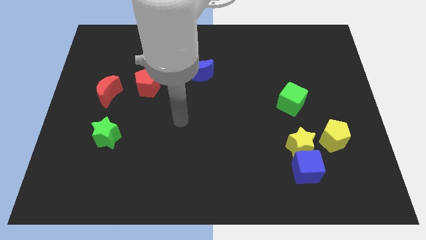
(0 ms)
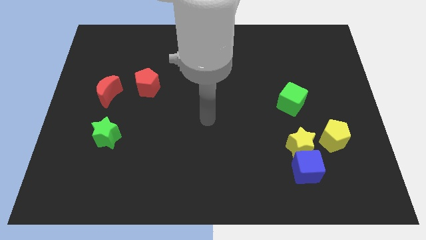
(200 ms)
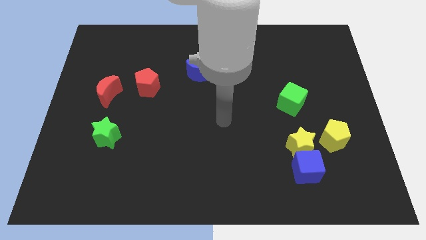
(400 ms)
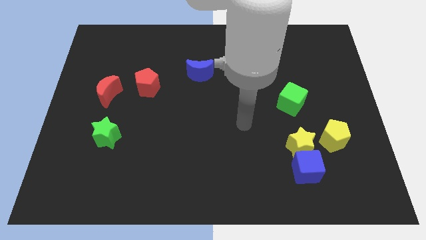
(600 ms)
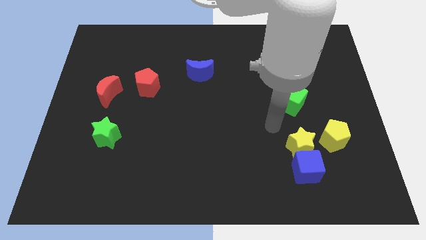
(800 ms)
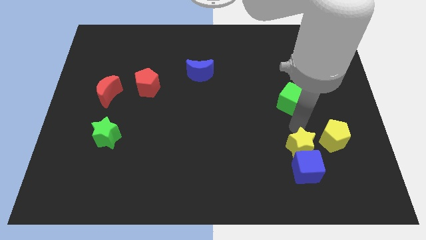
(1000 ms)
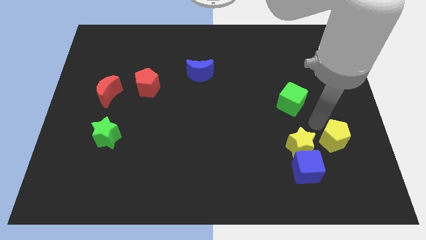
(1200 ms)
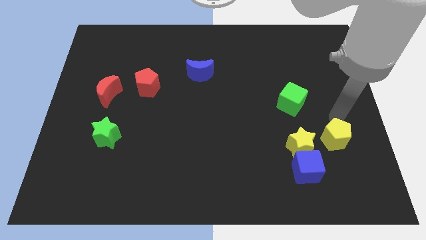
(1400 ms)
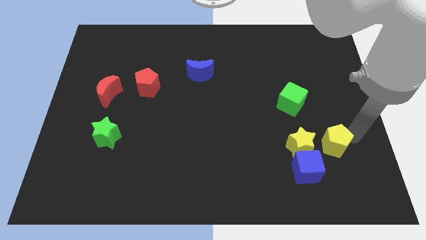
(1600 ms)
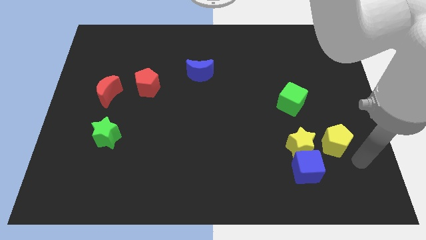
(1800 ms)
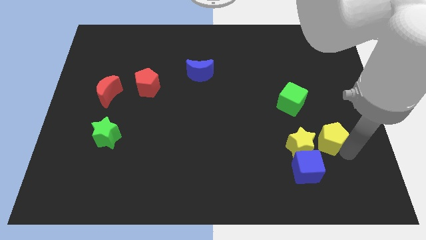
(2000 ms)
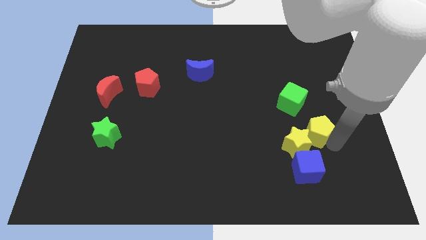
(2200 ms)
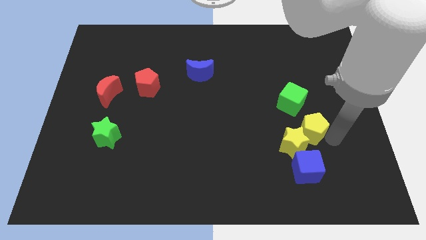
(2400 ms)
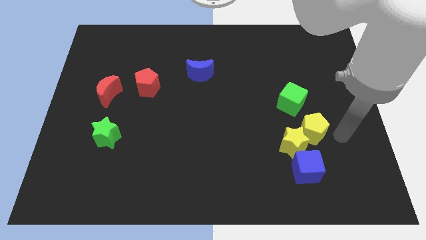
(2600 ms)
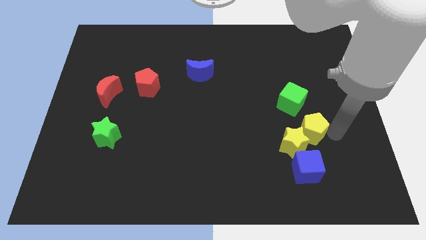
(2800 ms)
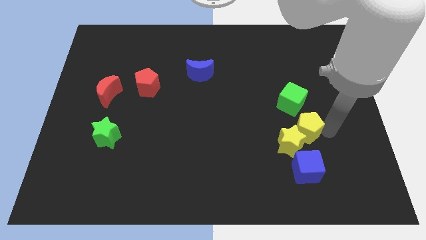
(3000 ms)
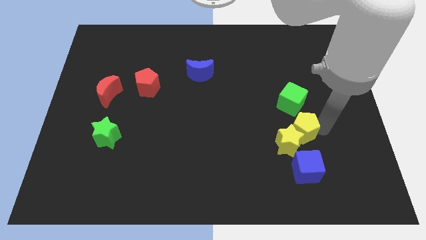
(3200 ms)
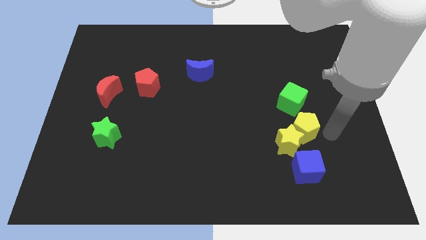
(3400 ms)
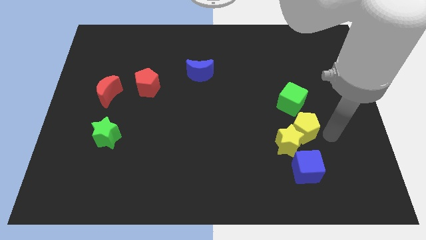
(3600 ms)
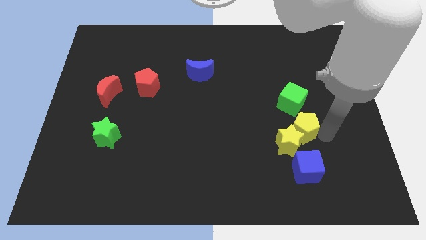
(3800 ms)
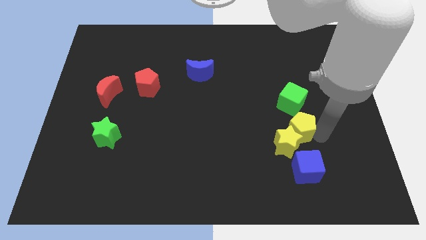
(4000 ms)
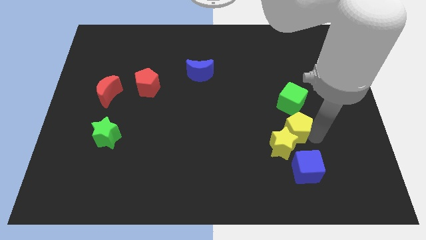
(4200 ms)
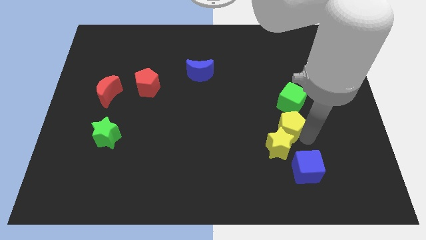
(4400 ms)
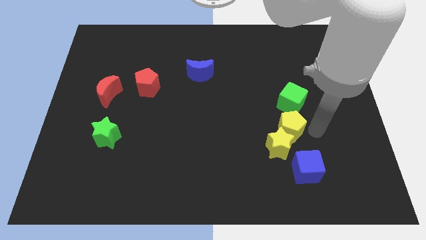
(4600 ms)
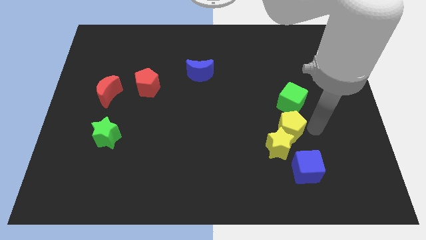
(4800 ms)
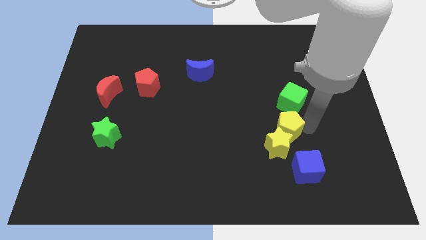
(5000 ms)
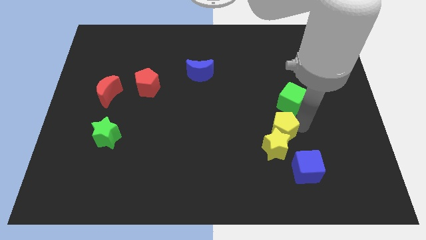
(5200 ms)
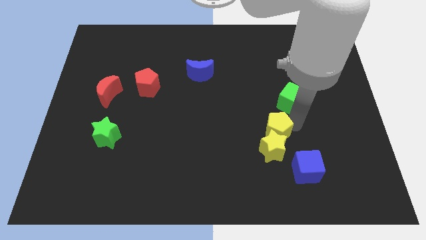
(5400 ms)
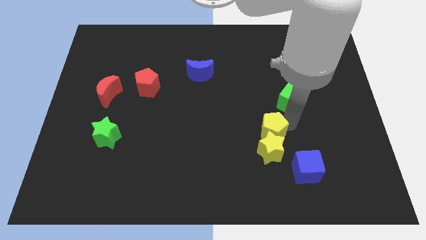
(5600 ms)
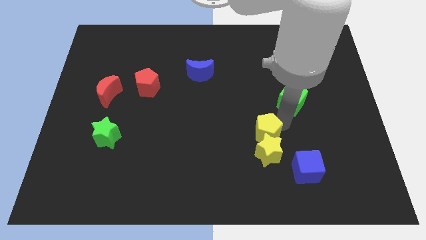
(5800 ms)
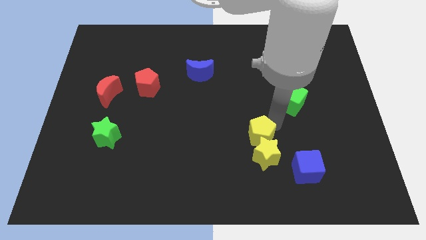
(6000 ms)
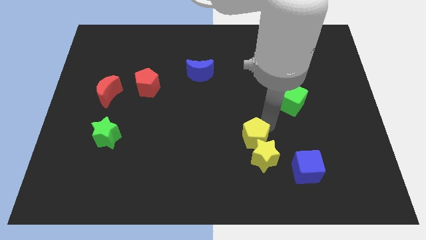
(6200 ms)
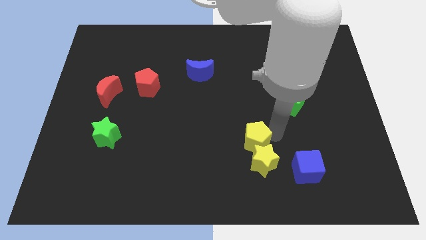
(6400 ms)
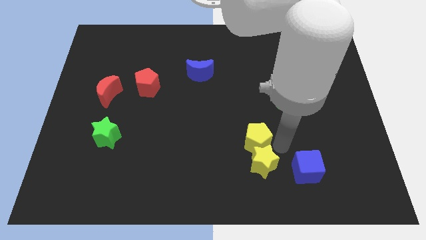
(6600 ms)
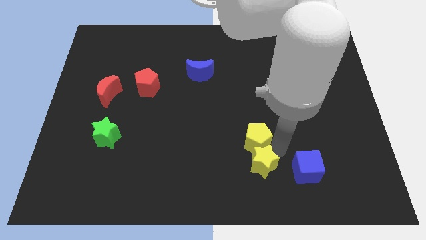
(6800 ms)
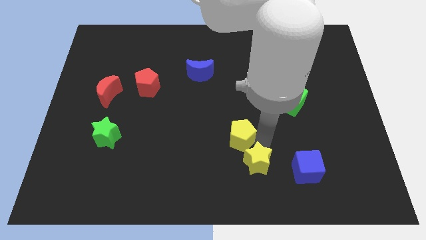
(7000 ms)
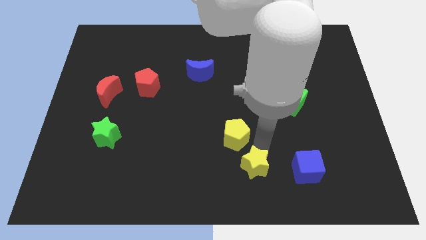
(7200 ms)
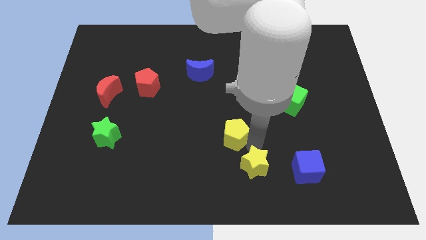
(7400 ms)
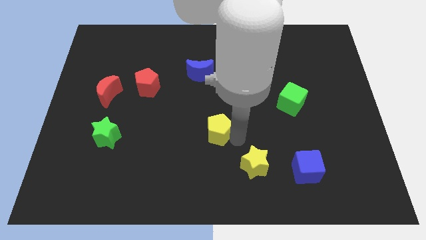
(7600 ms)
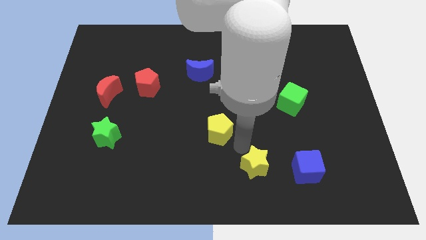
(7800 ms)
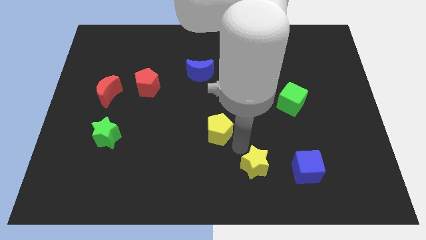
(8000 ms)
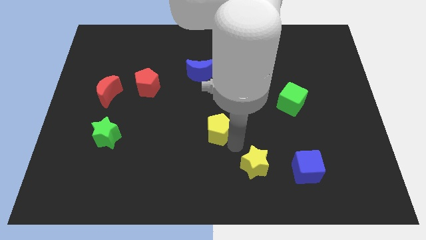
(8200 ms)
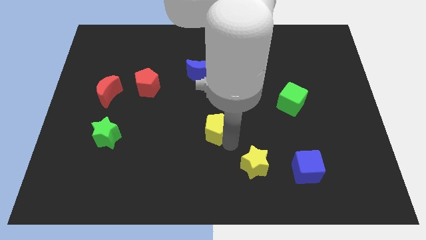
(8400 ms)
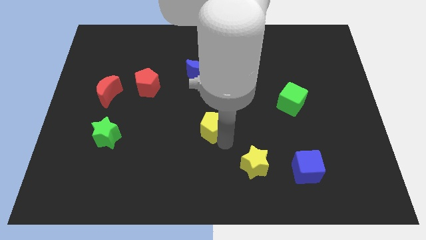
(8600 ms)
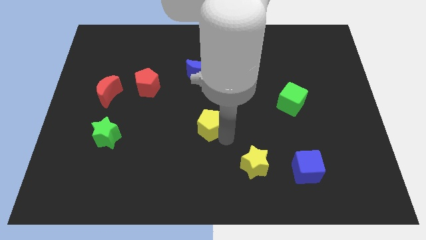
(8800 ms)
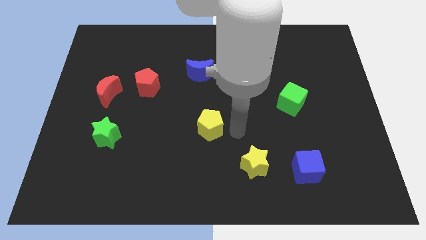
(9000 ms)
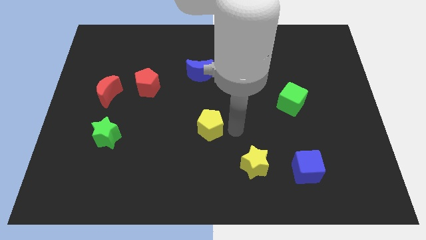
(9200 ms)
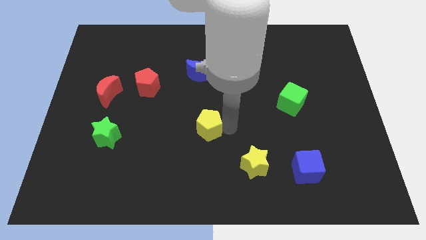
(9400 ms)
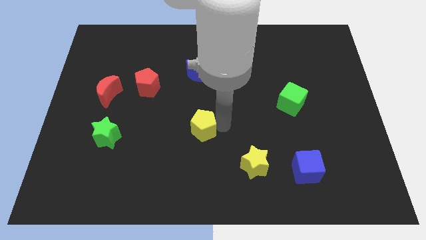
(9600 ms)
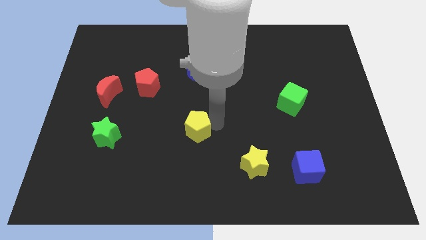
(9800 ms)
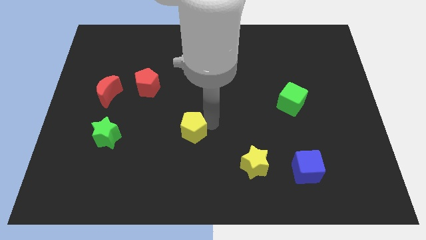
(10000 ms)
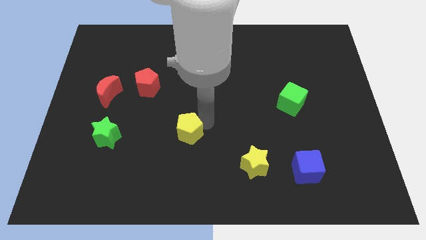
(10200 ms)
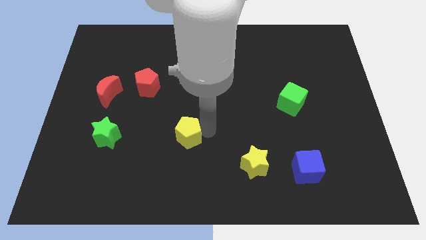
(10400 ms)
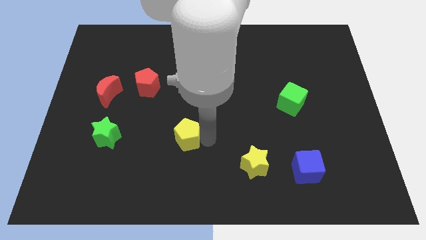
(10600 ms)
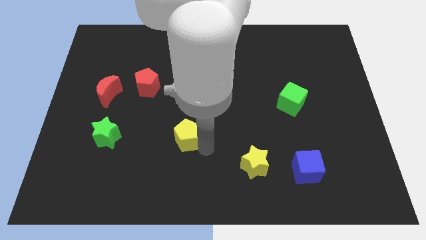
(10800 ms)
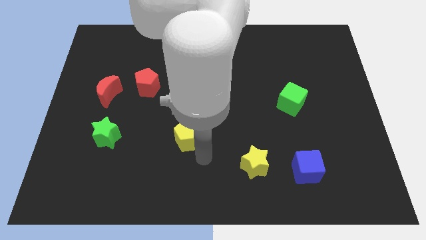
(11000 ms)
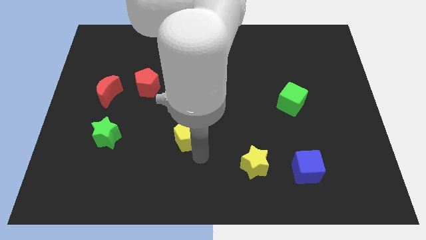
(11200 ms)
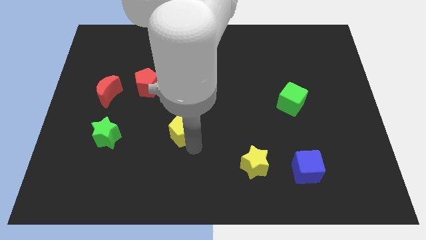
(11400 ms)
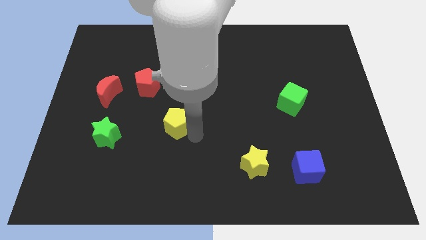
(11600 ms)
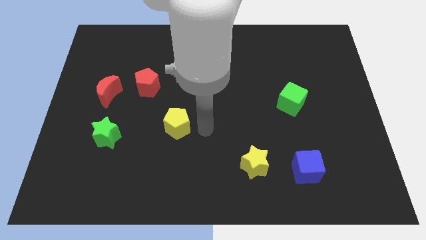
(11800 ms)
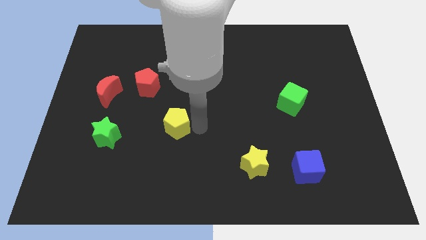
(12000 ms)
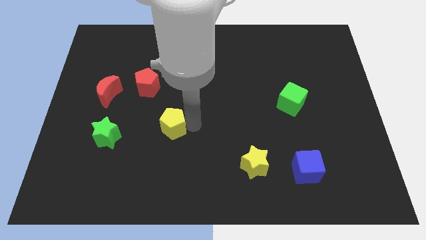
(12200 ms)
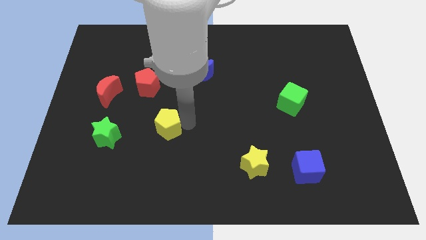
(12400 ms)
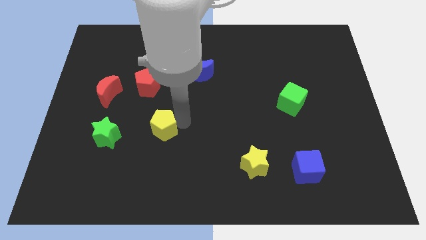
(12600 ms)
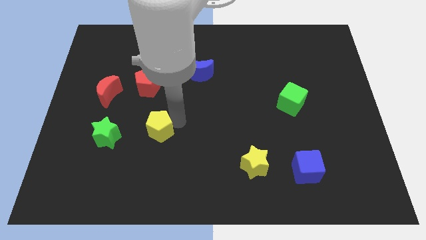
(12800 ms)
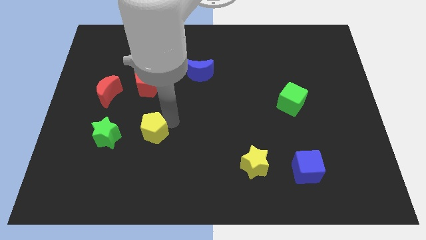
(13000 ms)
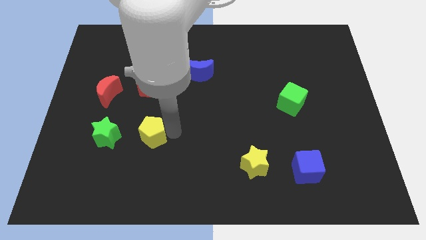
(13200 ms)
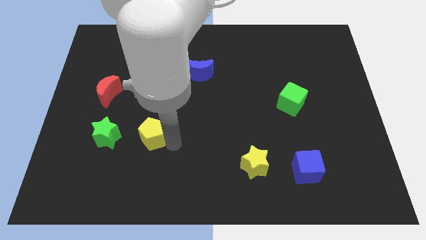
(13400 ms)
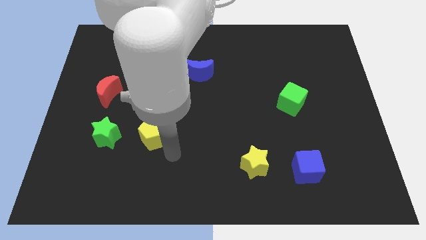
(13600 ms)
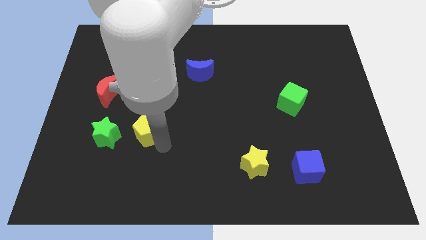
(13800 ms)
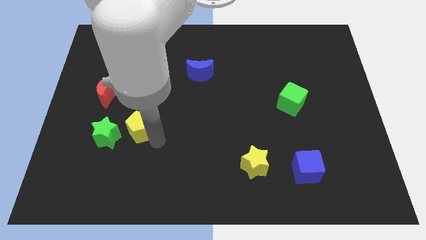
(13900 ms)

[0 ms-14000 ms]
push the yellow pentagon to the top right side of the green star

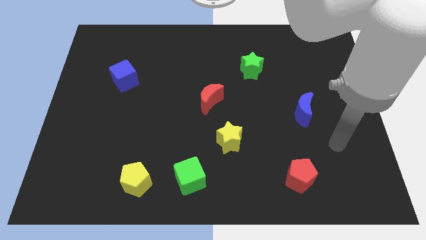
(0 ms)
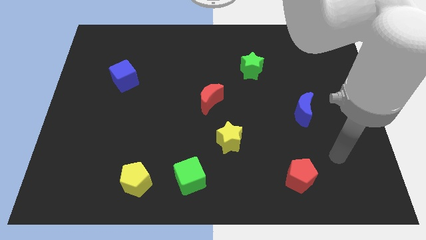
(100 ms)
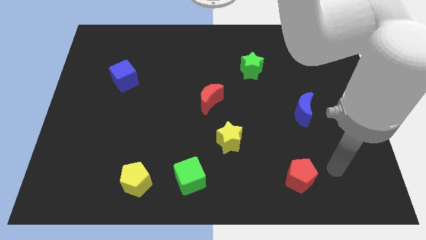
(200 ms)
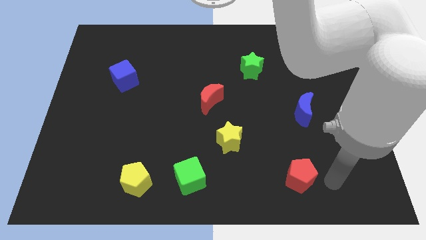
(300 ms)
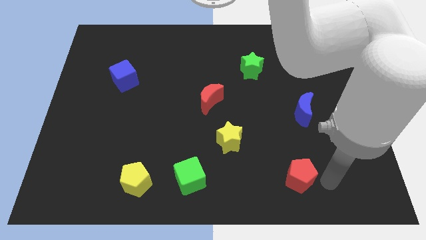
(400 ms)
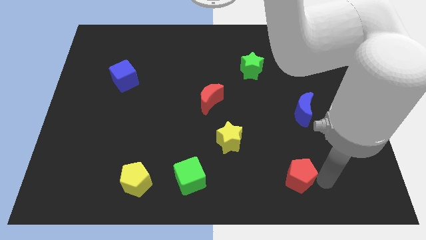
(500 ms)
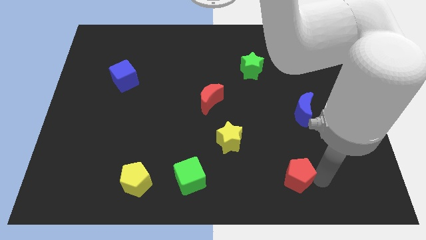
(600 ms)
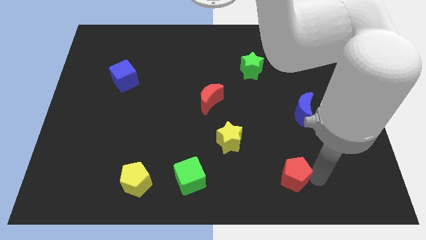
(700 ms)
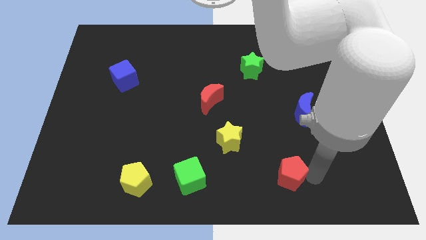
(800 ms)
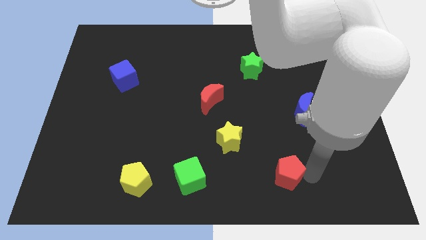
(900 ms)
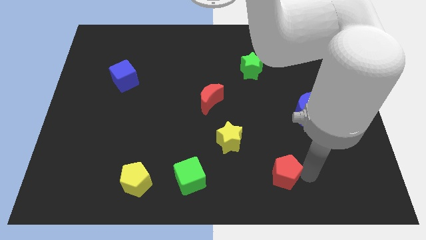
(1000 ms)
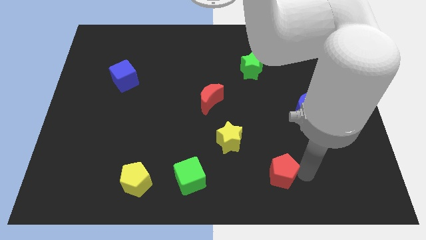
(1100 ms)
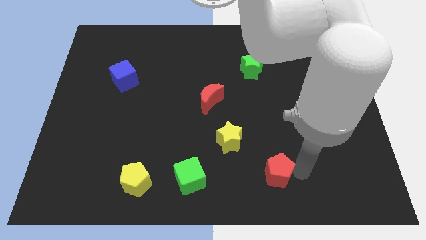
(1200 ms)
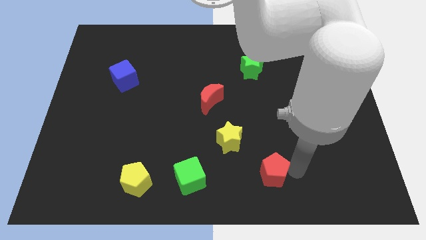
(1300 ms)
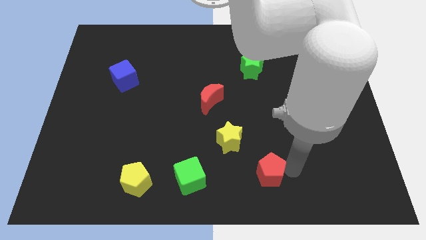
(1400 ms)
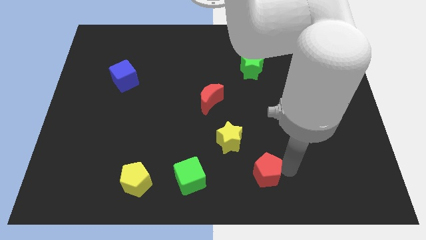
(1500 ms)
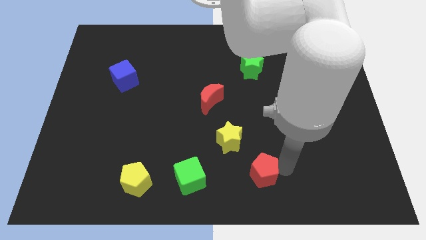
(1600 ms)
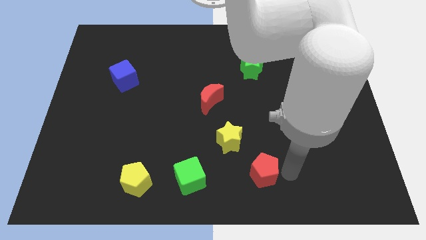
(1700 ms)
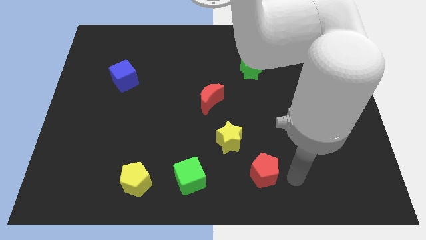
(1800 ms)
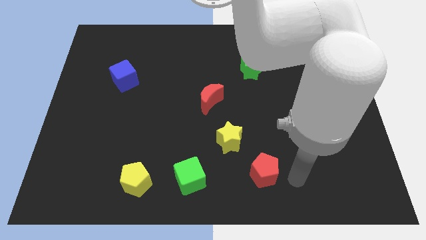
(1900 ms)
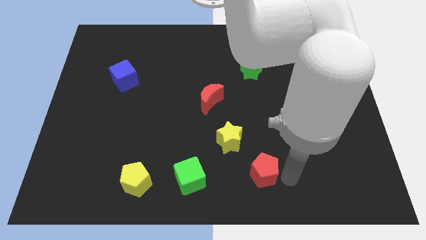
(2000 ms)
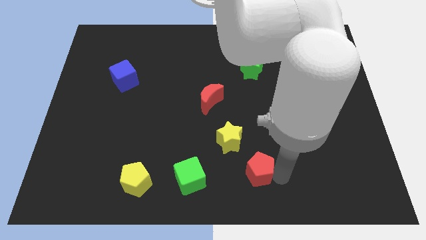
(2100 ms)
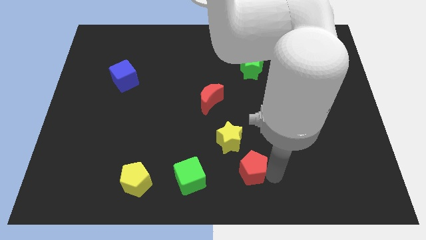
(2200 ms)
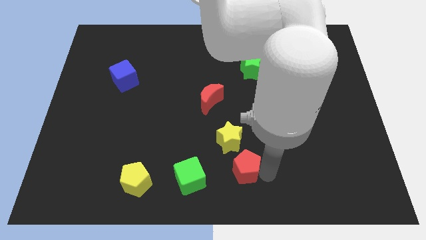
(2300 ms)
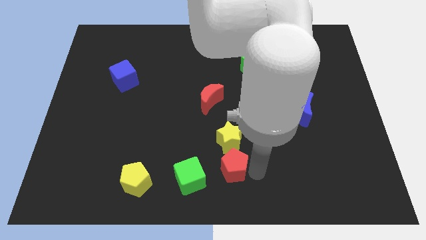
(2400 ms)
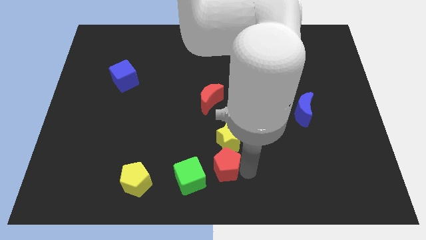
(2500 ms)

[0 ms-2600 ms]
push the red pentagon to the bottom left side of the yellow star
